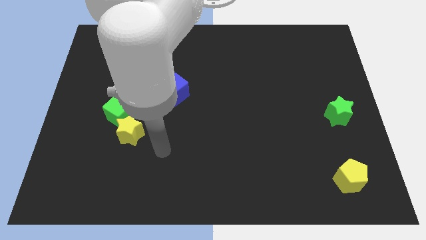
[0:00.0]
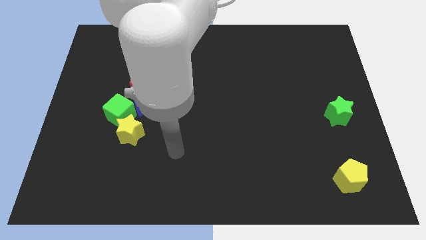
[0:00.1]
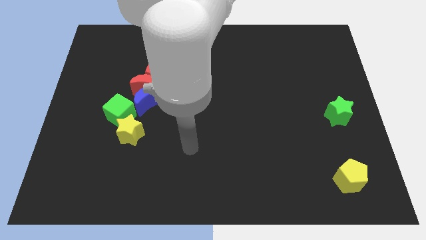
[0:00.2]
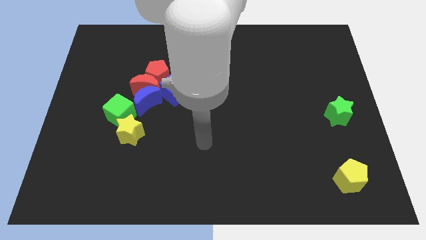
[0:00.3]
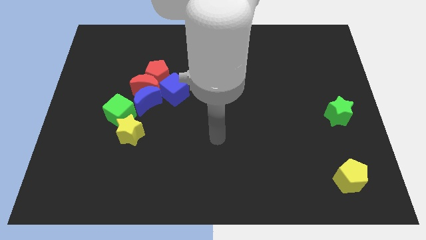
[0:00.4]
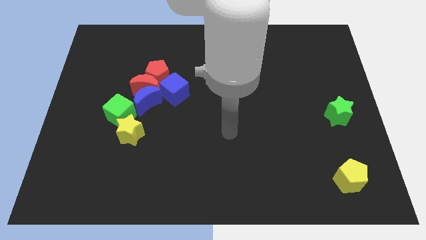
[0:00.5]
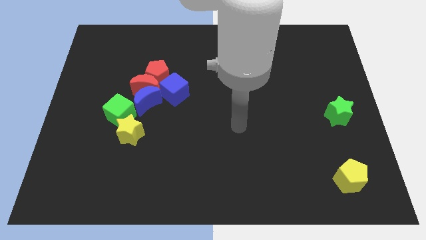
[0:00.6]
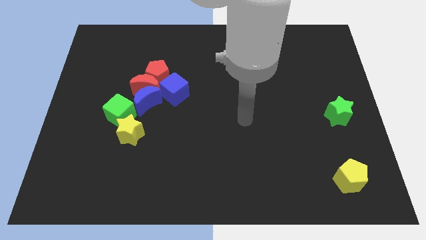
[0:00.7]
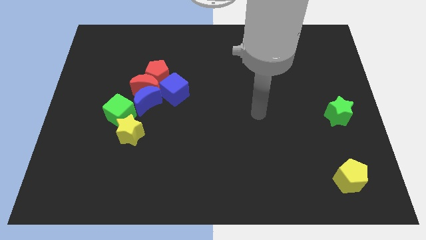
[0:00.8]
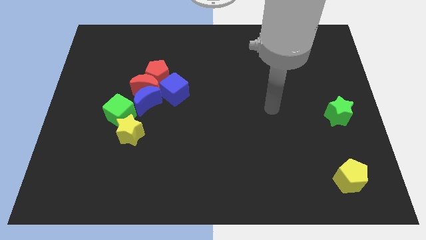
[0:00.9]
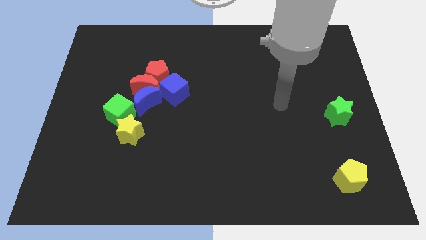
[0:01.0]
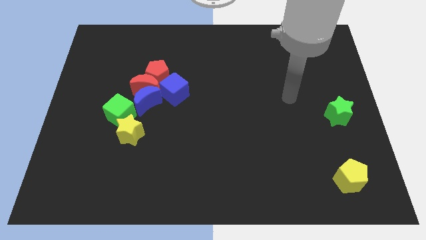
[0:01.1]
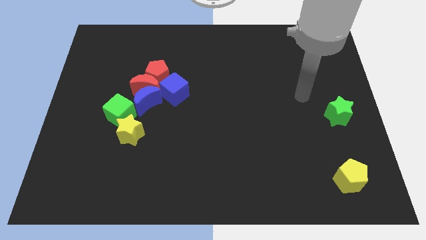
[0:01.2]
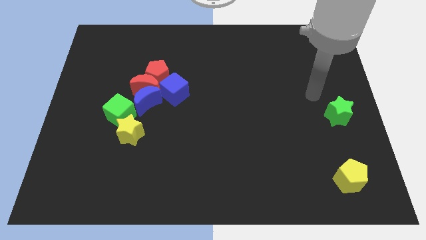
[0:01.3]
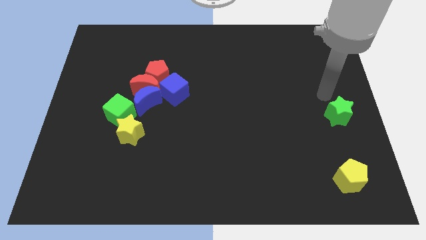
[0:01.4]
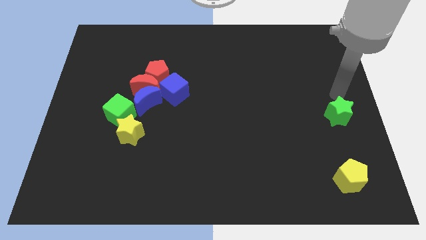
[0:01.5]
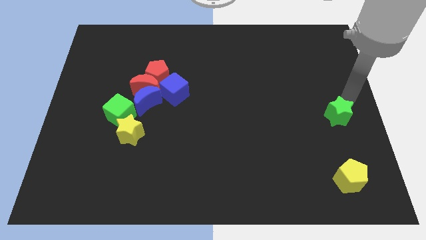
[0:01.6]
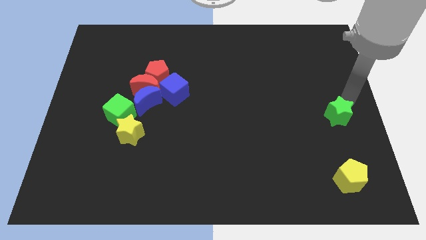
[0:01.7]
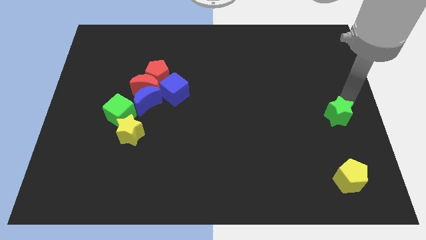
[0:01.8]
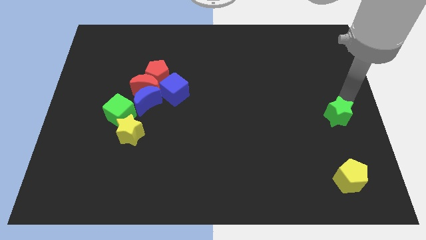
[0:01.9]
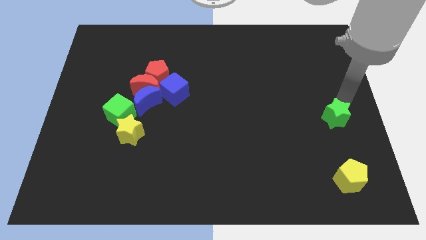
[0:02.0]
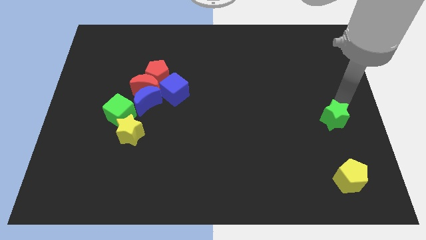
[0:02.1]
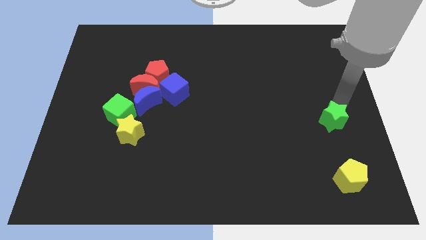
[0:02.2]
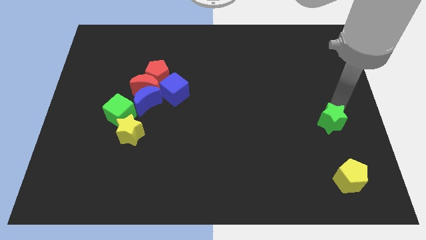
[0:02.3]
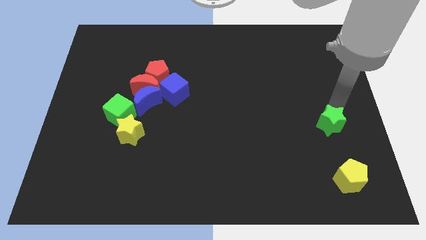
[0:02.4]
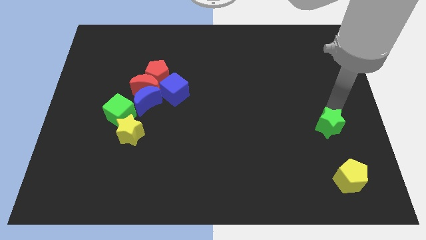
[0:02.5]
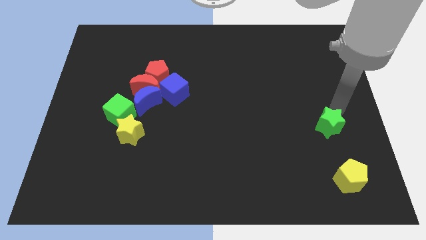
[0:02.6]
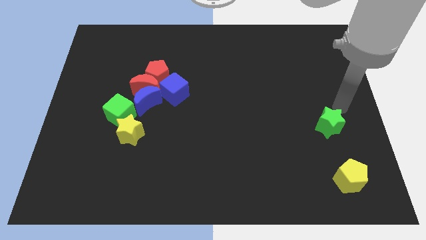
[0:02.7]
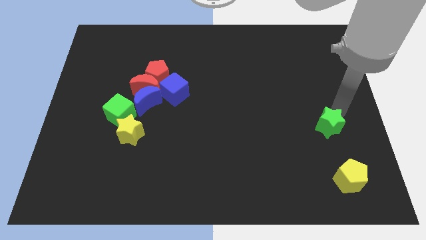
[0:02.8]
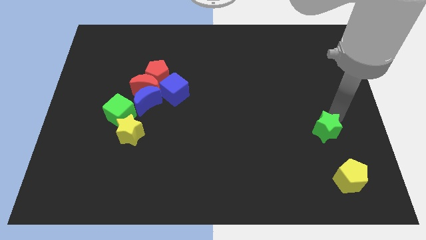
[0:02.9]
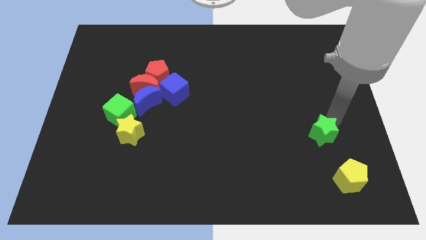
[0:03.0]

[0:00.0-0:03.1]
slightly push the green star down and then to the left

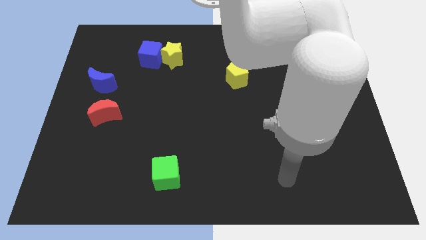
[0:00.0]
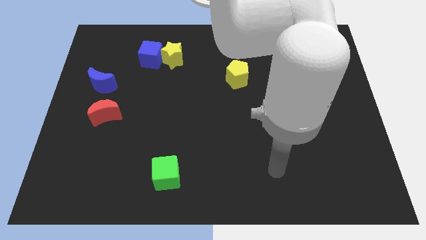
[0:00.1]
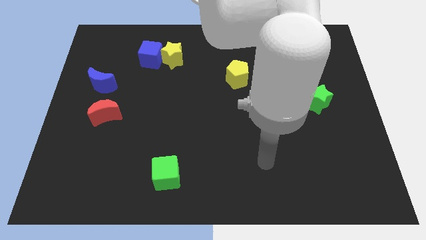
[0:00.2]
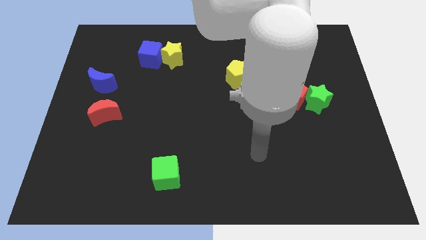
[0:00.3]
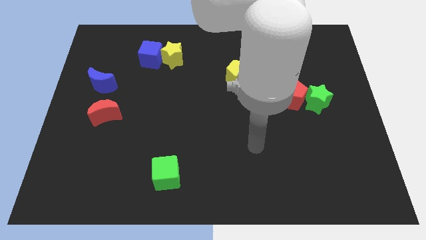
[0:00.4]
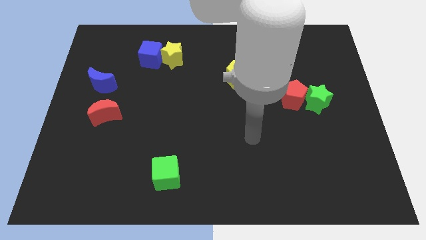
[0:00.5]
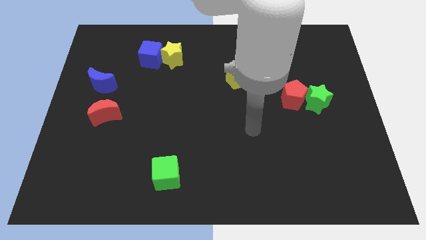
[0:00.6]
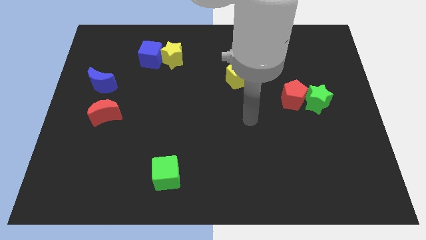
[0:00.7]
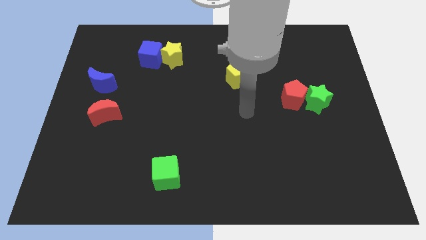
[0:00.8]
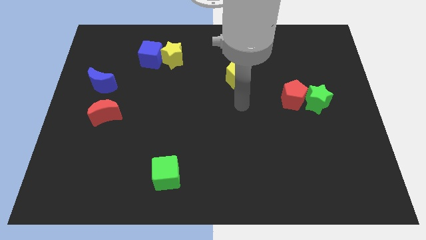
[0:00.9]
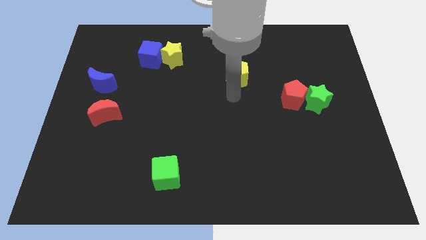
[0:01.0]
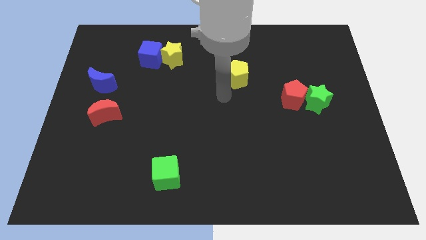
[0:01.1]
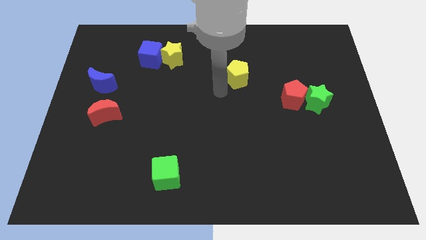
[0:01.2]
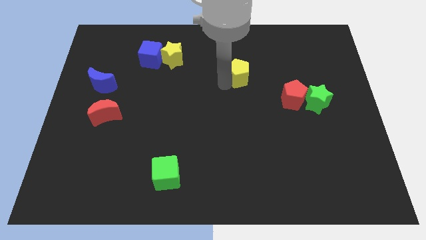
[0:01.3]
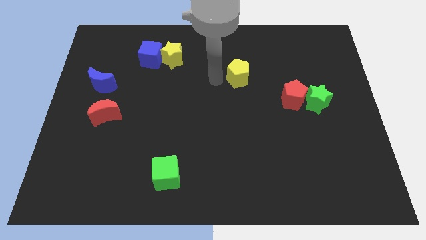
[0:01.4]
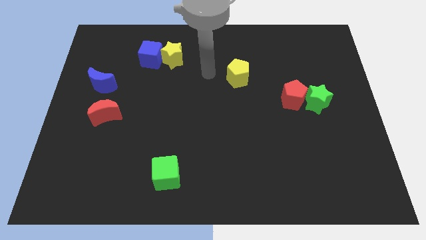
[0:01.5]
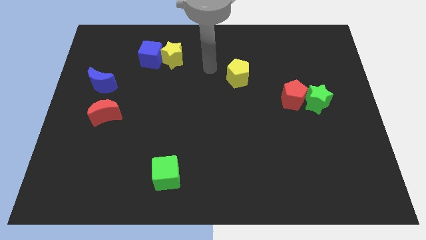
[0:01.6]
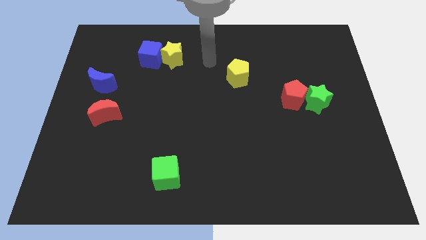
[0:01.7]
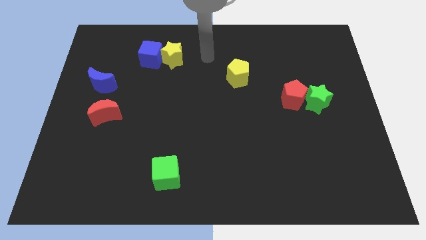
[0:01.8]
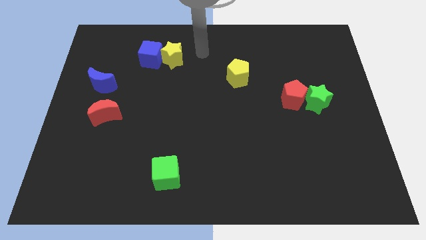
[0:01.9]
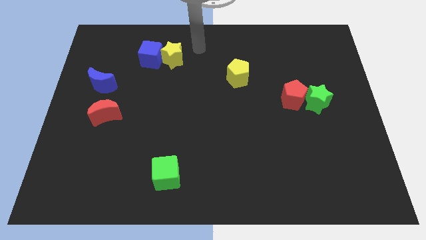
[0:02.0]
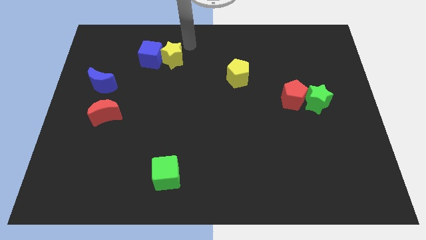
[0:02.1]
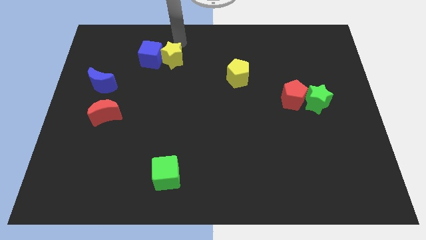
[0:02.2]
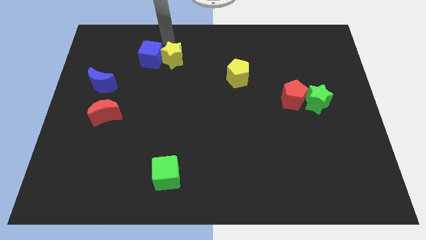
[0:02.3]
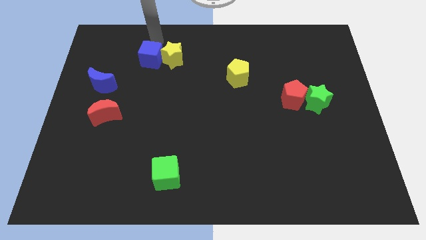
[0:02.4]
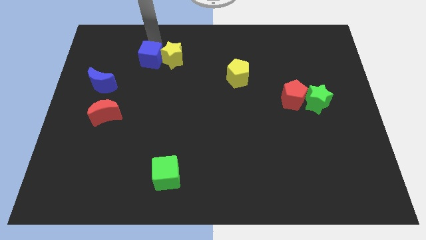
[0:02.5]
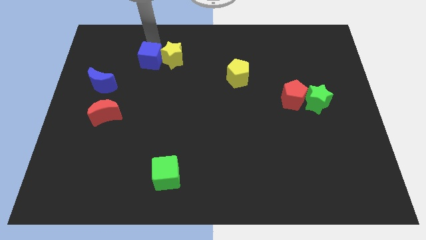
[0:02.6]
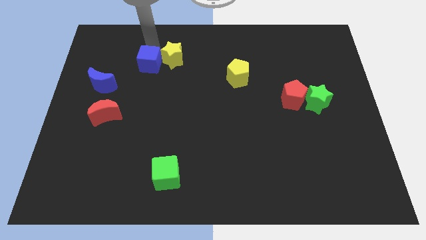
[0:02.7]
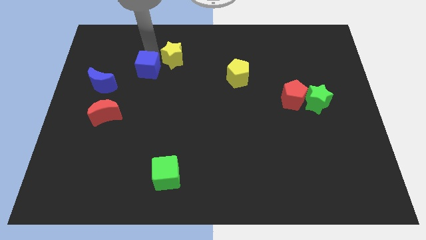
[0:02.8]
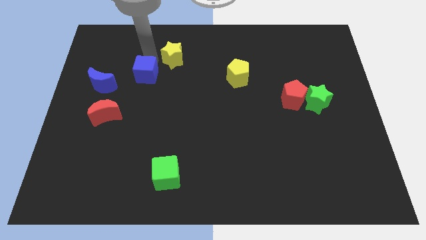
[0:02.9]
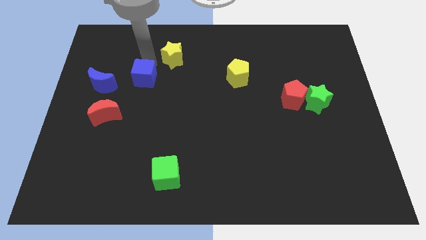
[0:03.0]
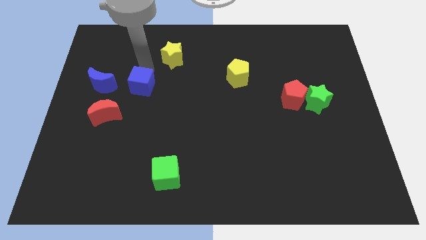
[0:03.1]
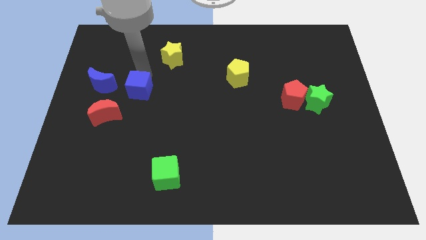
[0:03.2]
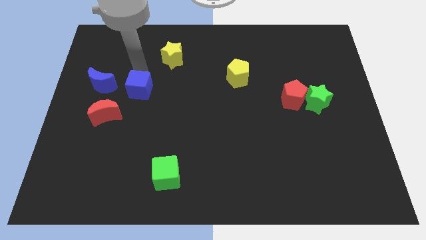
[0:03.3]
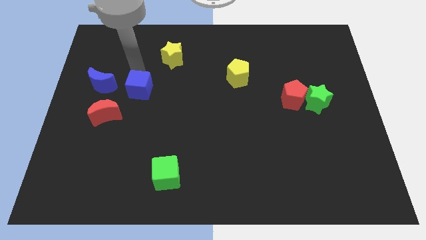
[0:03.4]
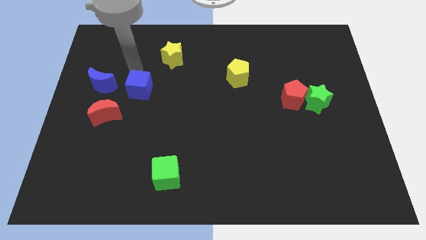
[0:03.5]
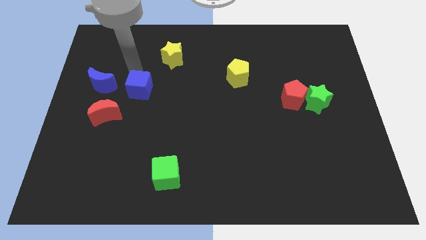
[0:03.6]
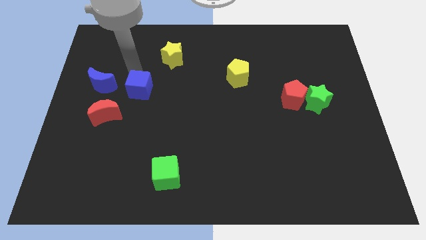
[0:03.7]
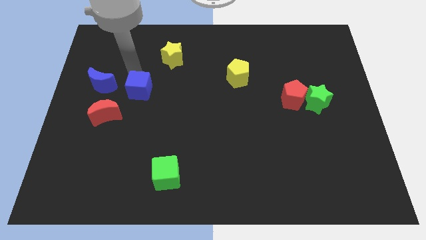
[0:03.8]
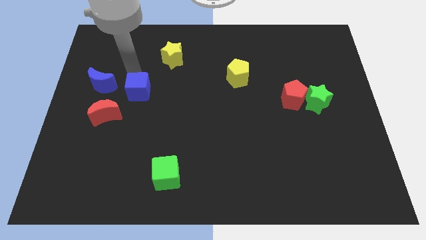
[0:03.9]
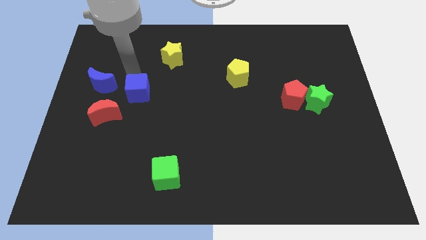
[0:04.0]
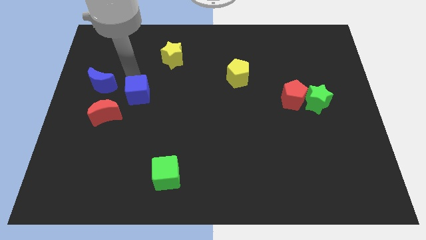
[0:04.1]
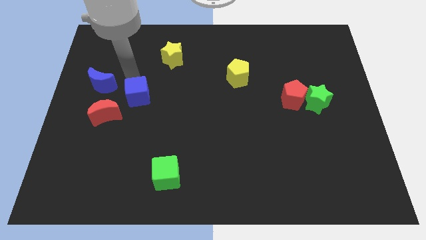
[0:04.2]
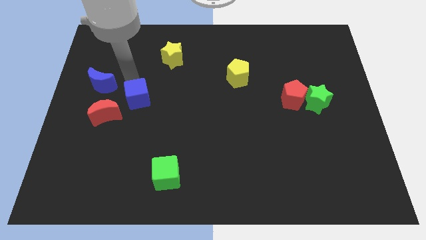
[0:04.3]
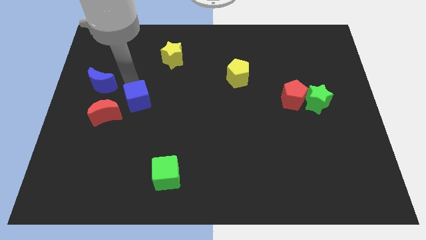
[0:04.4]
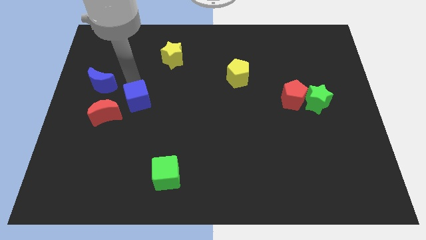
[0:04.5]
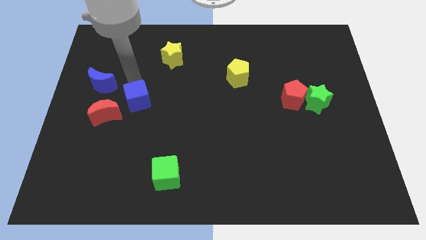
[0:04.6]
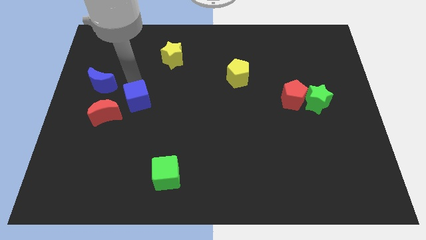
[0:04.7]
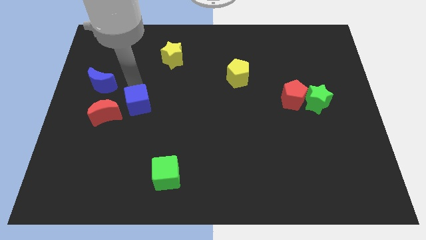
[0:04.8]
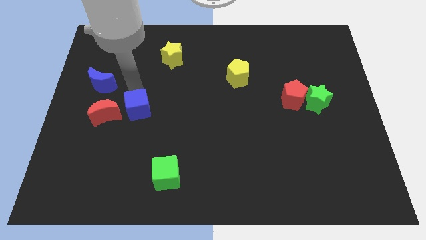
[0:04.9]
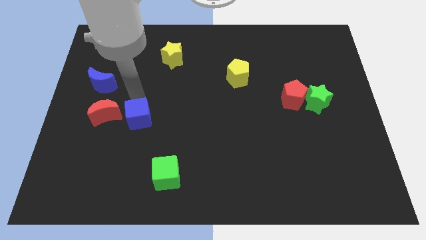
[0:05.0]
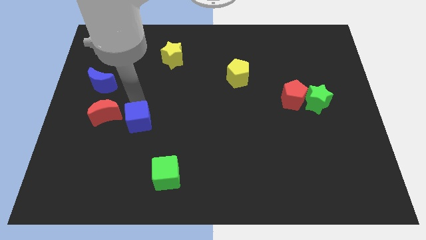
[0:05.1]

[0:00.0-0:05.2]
push the blue cube down

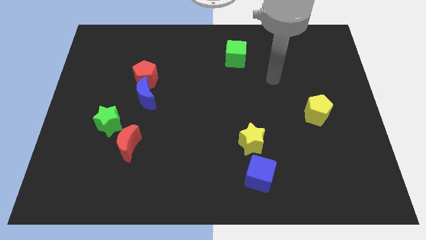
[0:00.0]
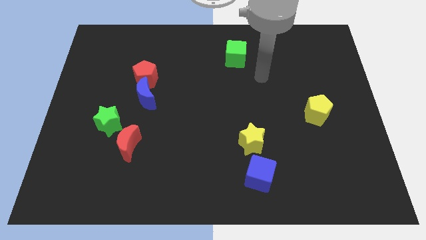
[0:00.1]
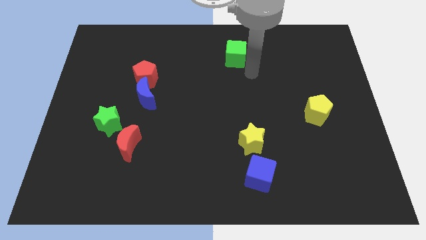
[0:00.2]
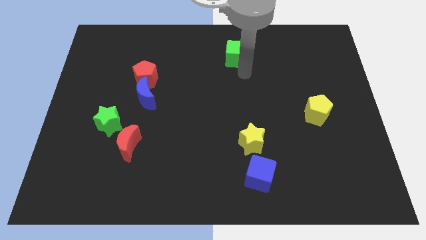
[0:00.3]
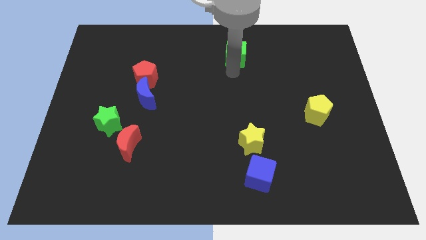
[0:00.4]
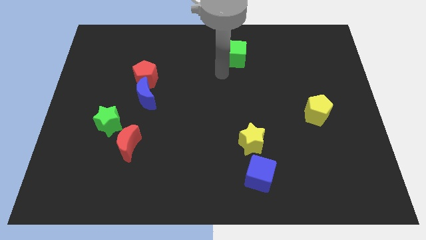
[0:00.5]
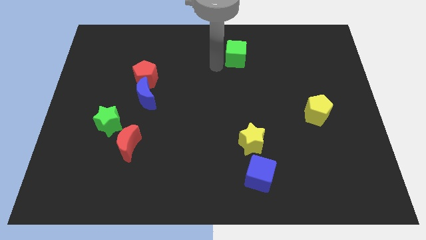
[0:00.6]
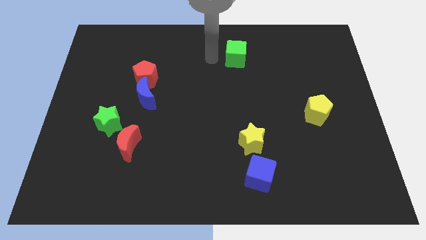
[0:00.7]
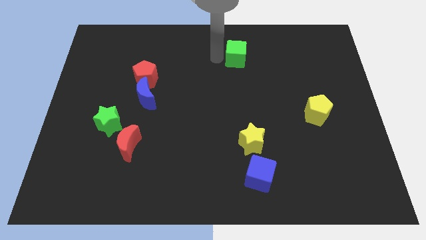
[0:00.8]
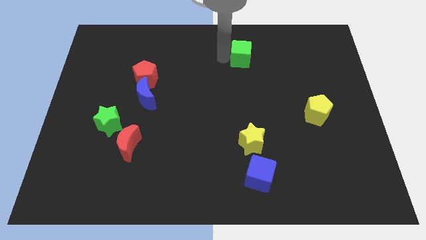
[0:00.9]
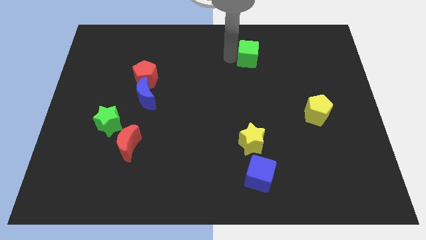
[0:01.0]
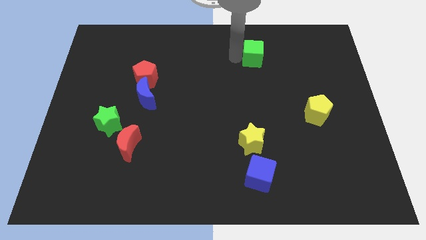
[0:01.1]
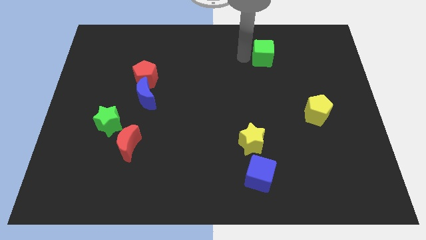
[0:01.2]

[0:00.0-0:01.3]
slightly slide the green cube to the right
